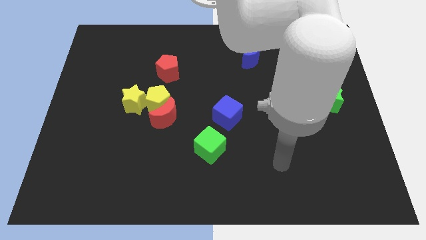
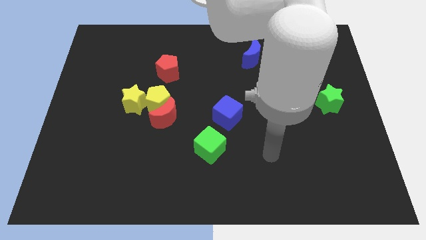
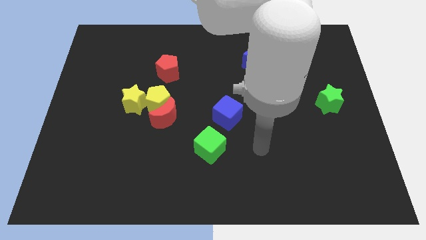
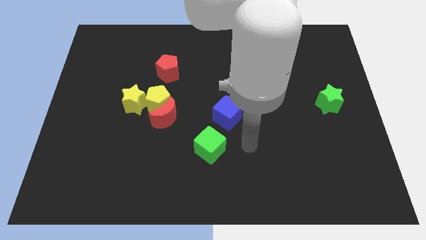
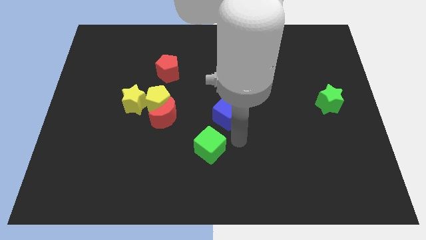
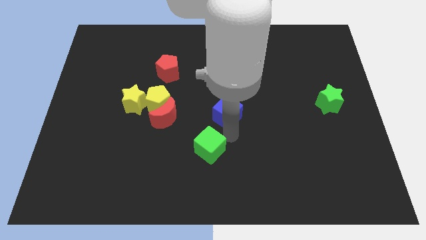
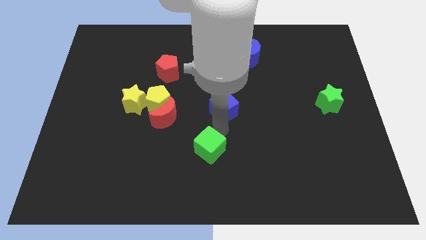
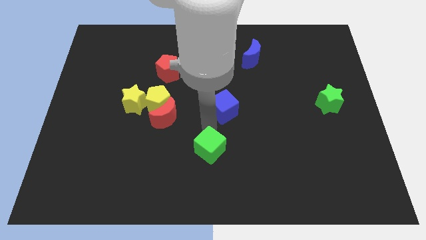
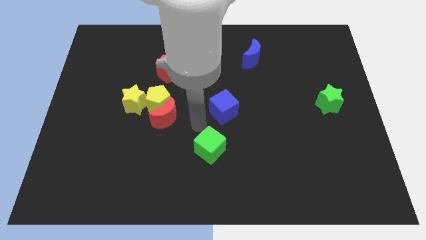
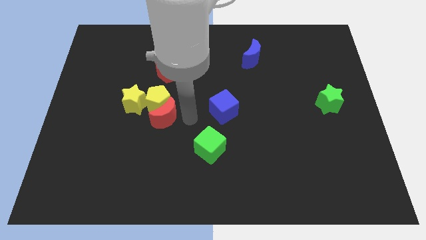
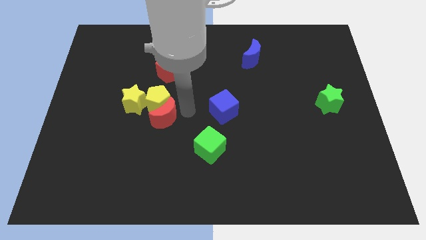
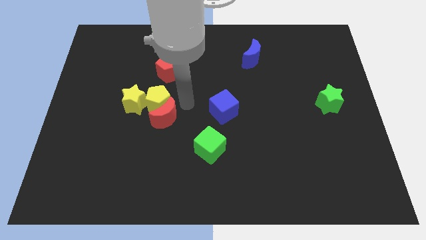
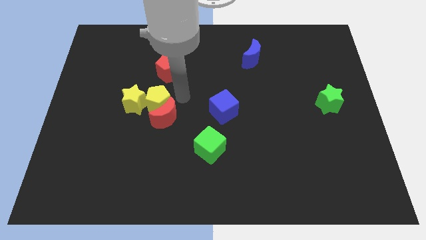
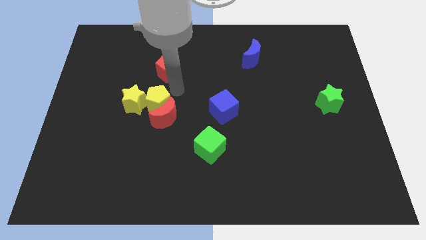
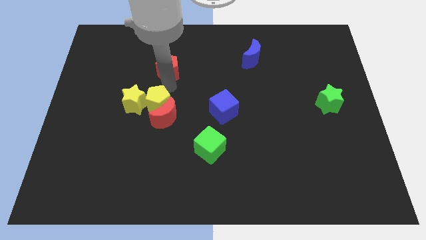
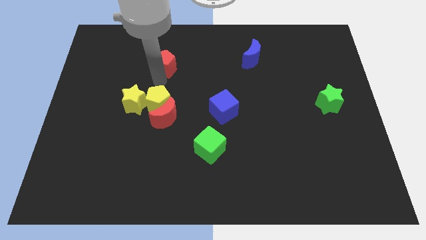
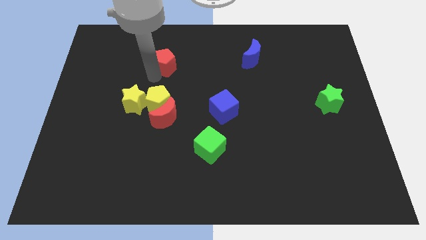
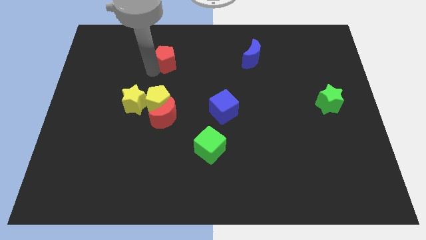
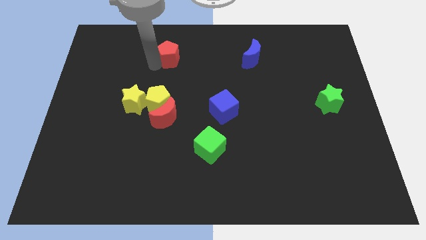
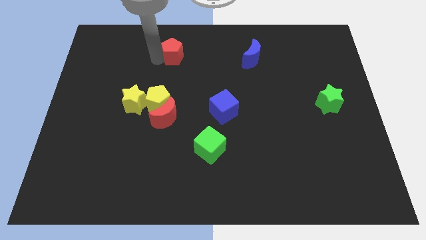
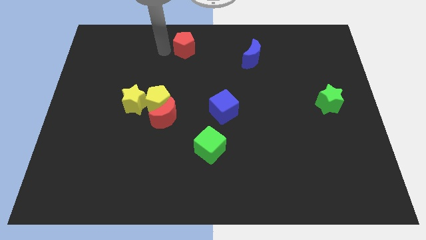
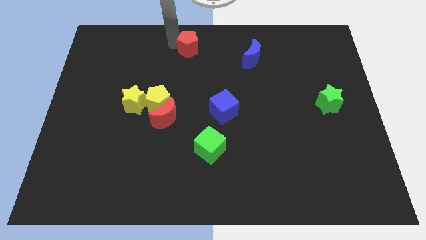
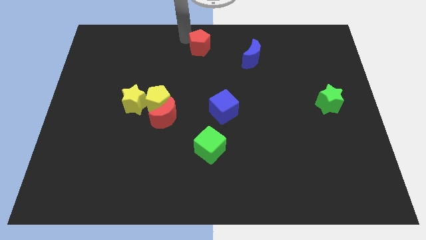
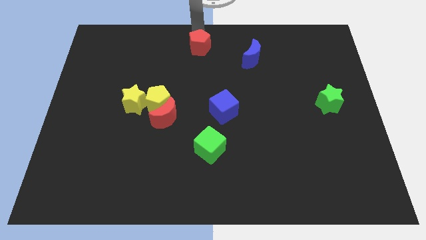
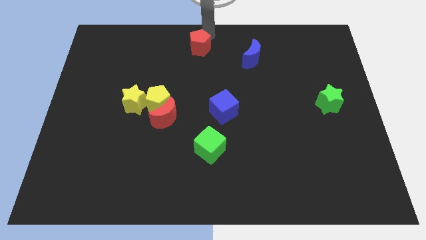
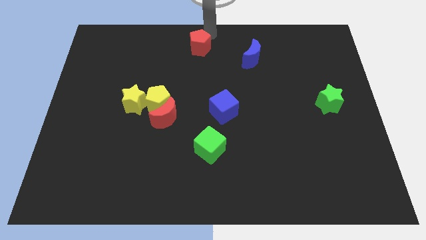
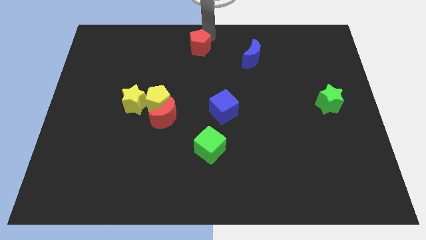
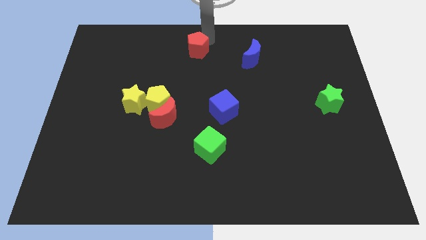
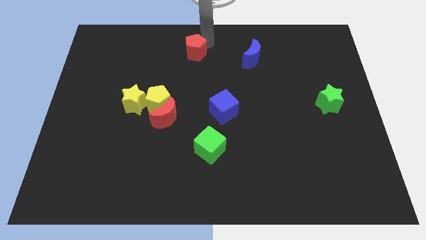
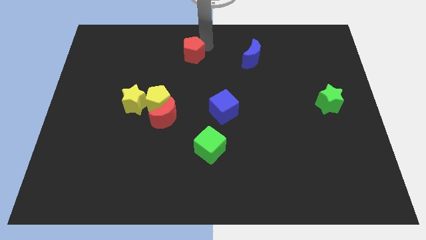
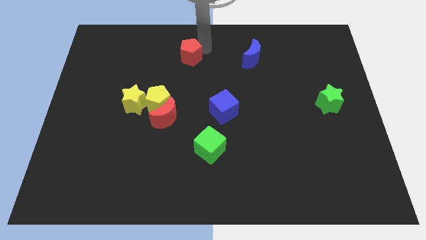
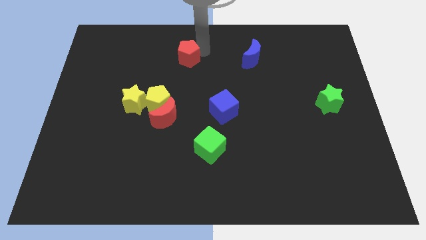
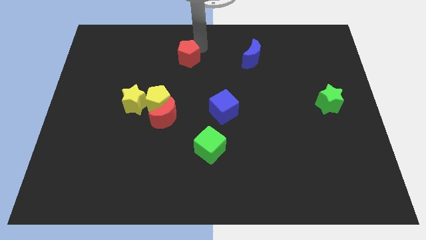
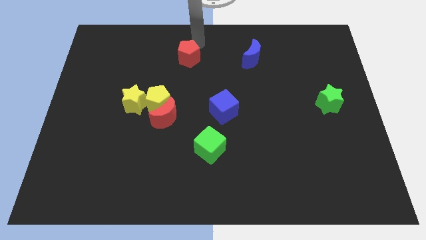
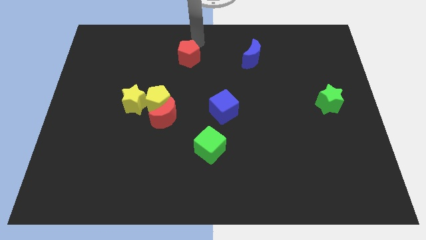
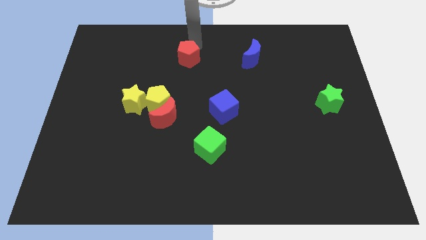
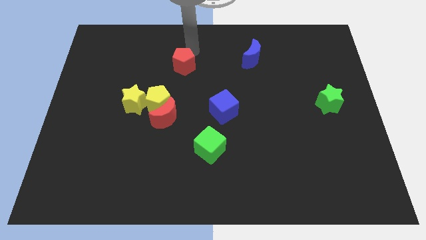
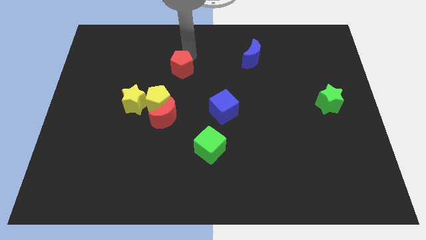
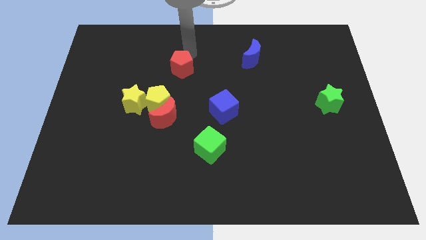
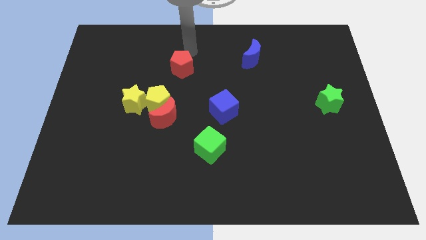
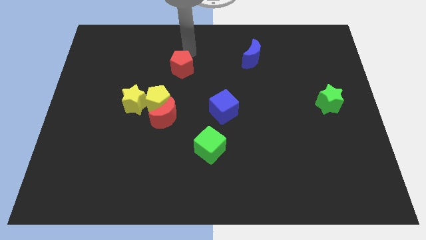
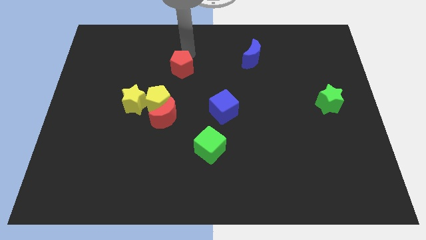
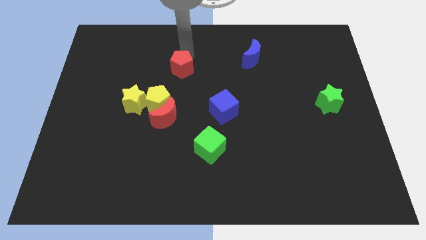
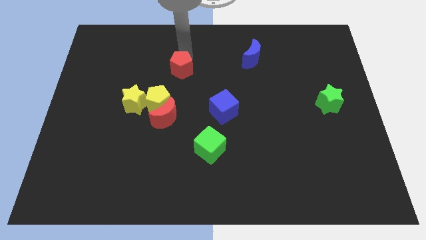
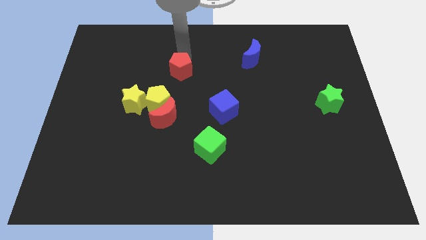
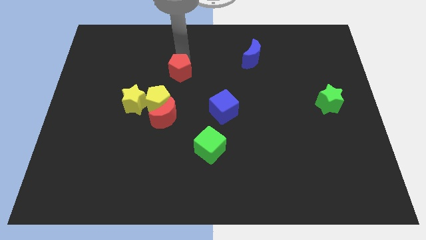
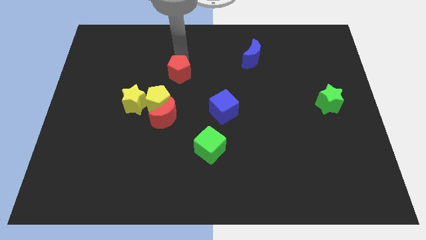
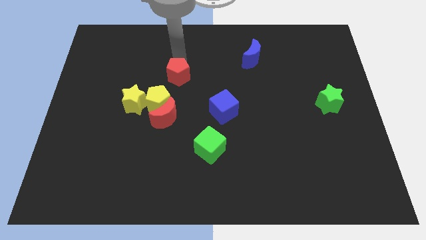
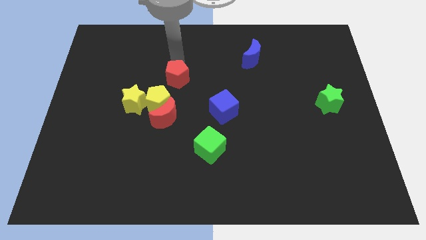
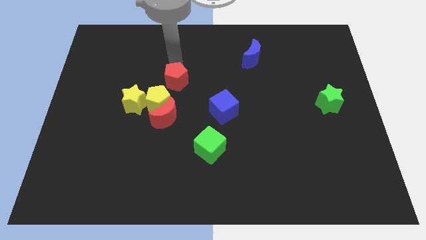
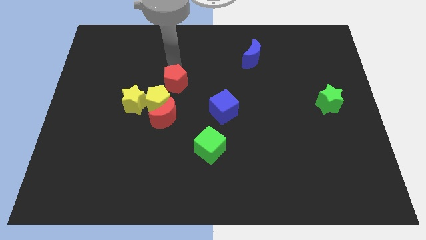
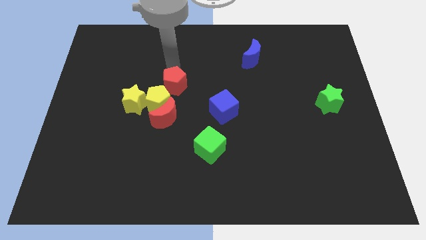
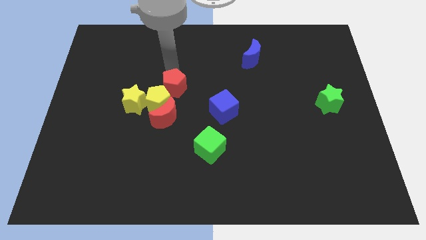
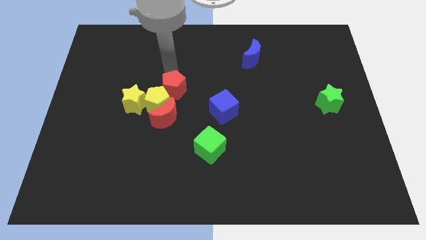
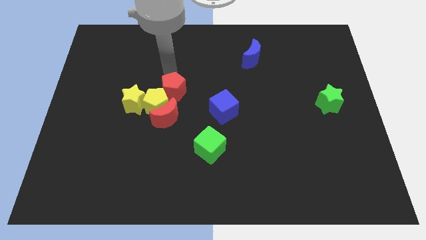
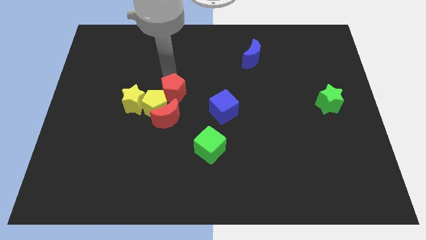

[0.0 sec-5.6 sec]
push the red pentagon down a bit

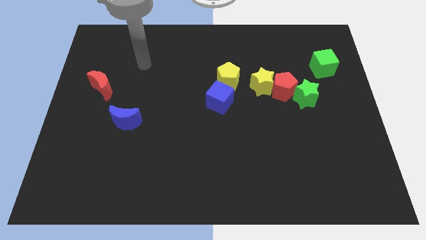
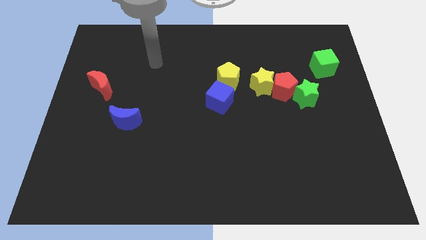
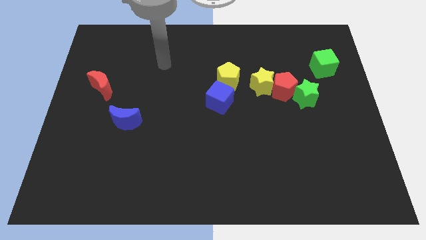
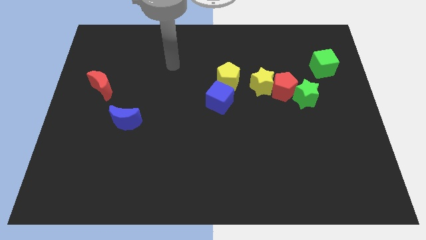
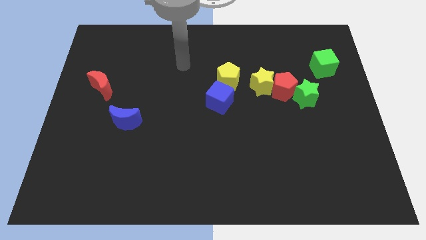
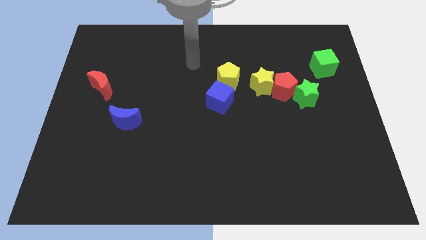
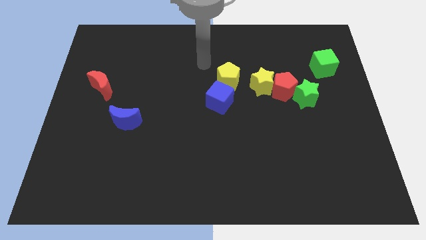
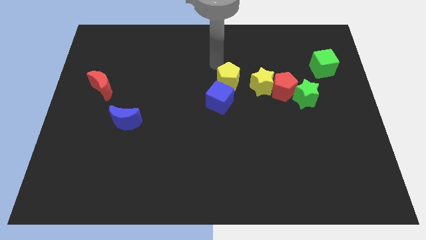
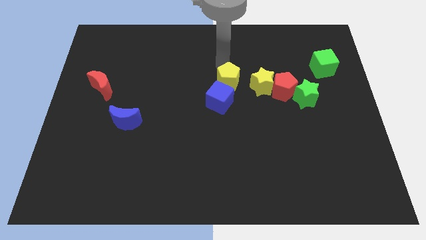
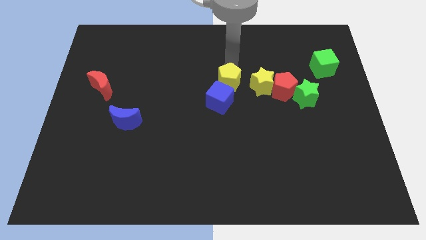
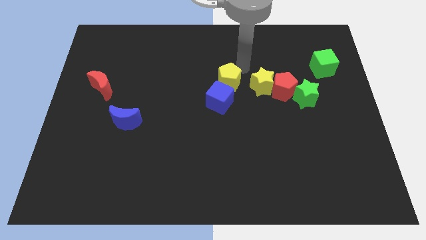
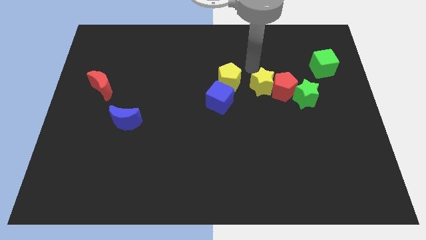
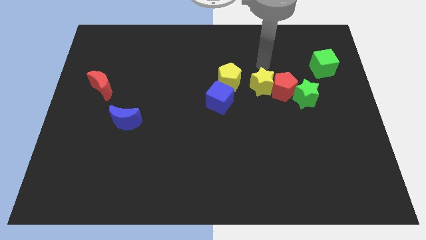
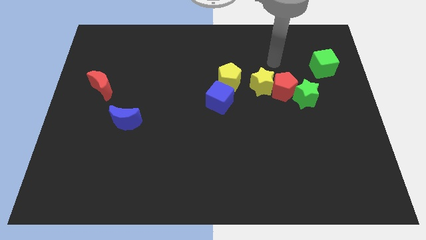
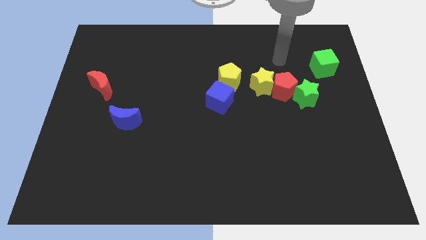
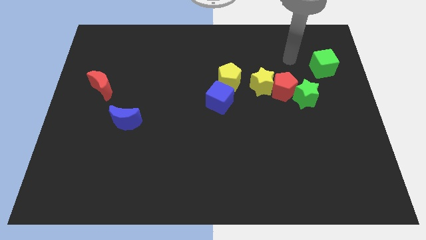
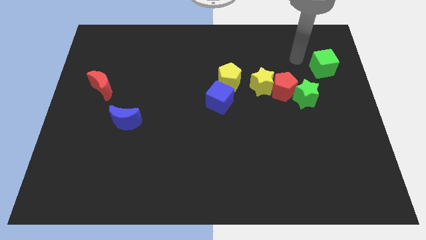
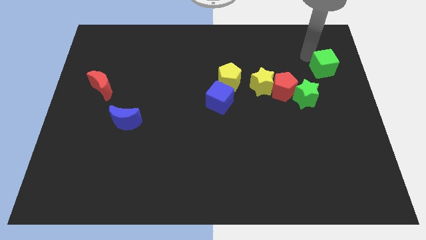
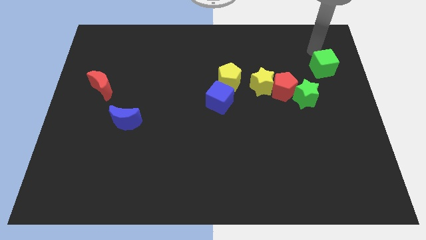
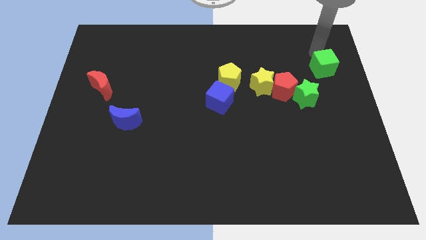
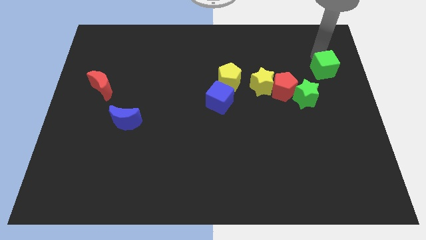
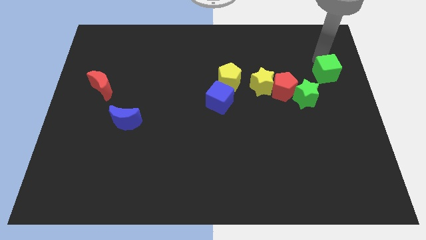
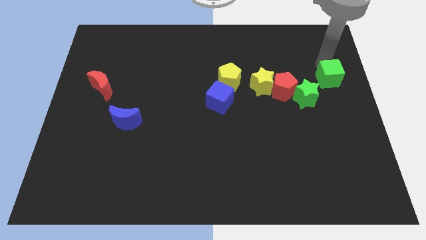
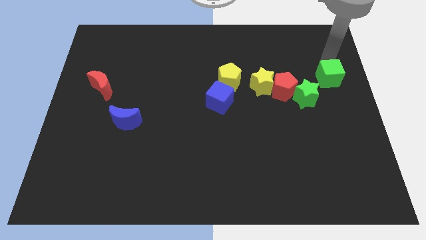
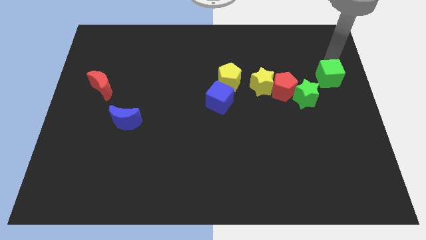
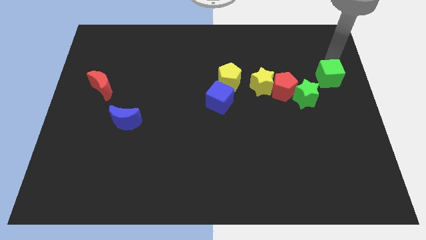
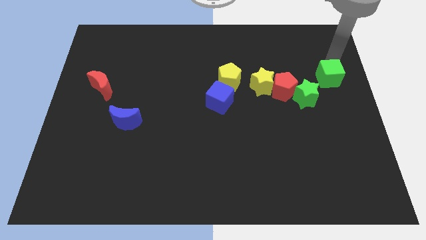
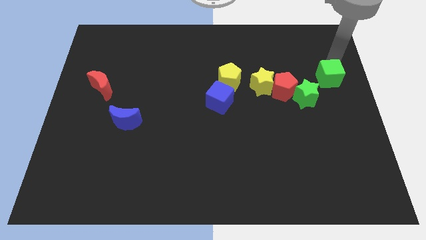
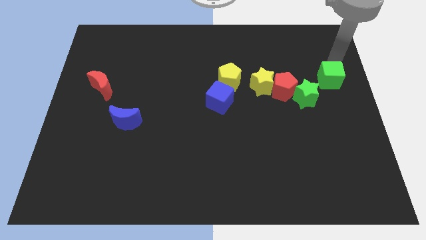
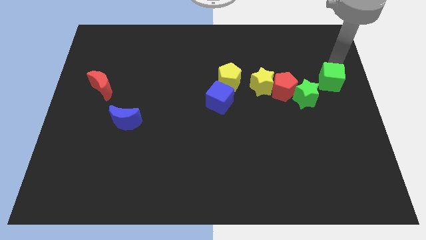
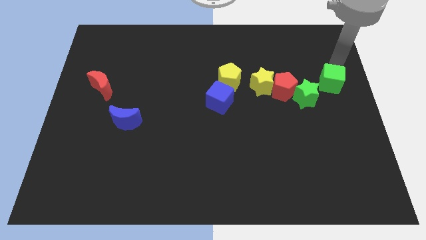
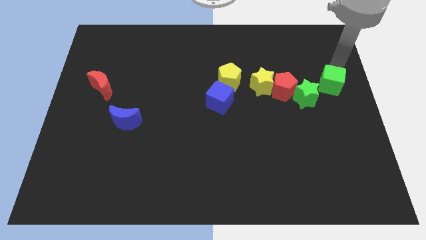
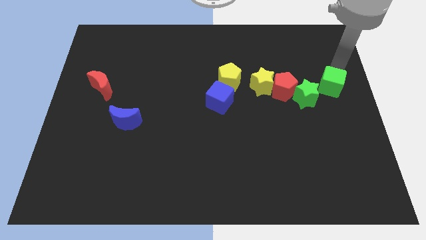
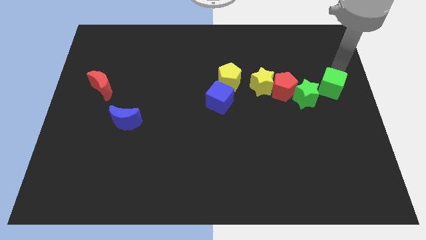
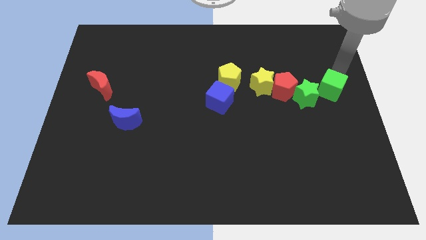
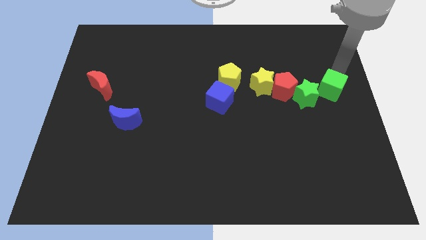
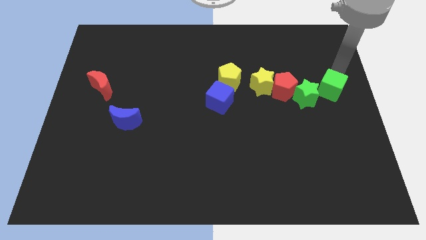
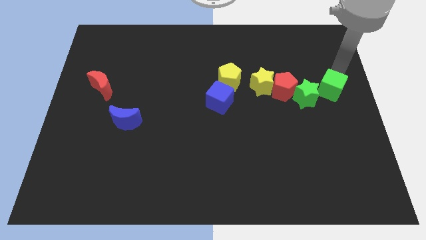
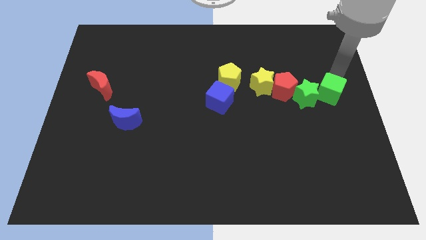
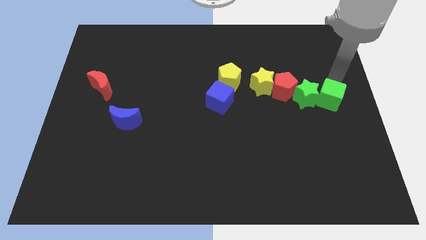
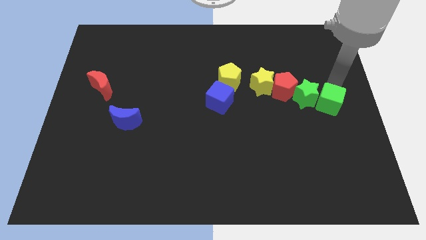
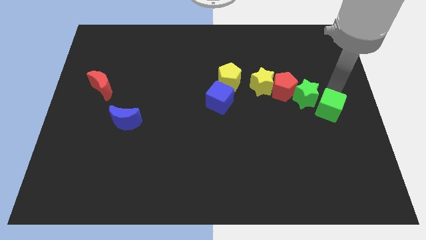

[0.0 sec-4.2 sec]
slide the green cube a little downwards and left
